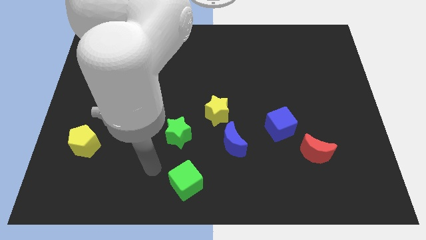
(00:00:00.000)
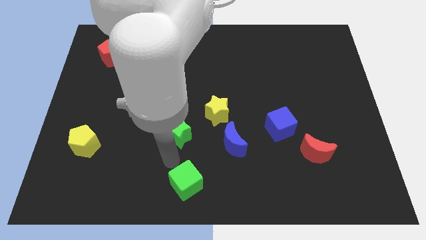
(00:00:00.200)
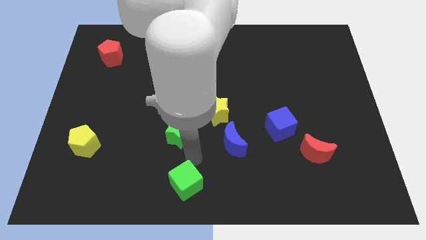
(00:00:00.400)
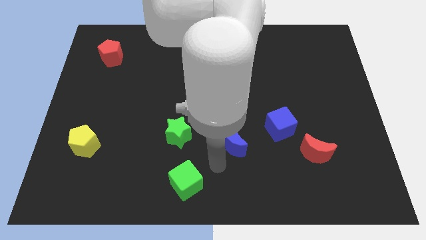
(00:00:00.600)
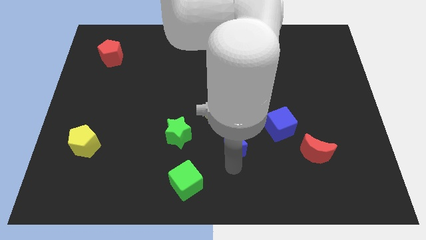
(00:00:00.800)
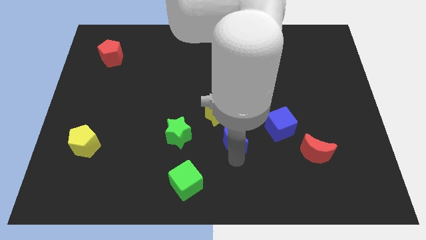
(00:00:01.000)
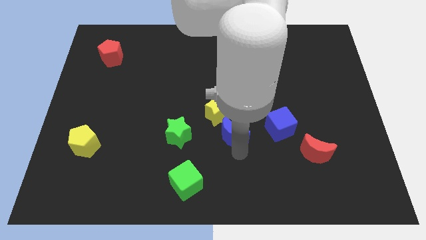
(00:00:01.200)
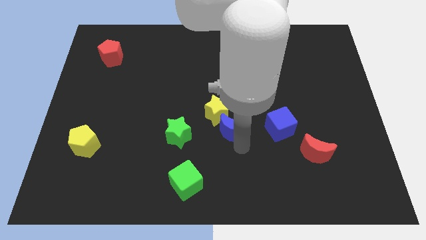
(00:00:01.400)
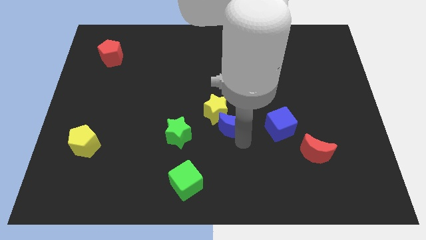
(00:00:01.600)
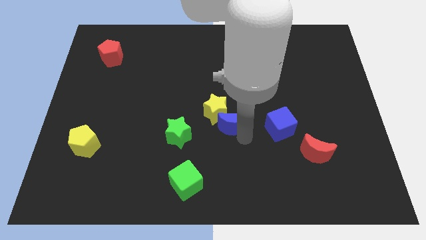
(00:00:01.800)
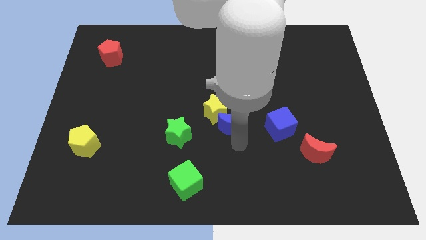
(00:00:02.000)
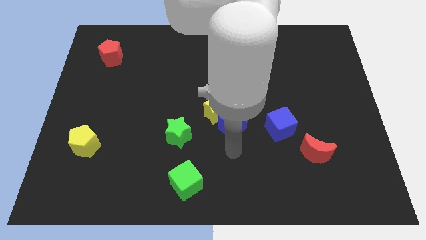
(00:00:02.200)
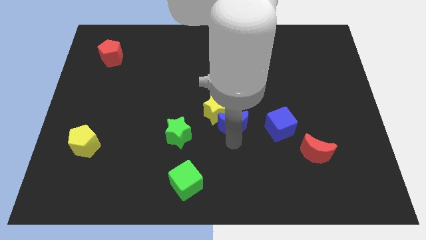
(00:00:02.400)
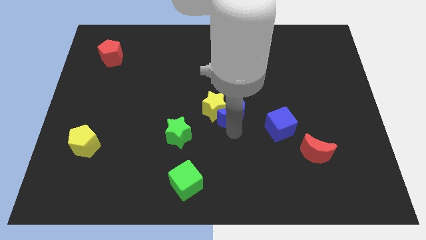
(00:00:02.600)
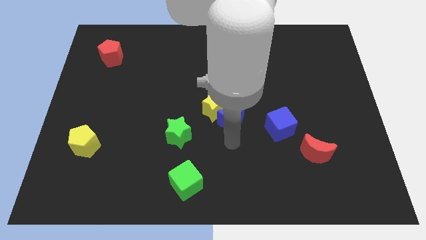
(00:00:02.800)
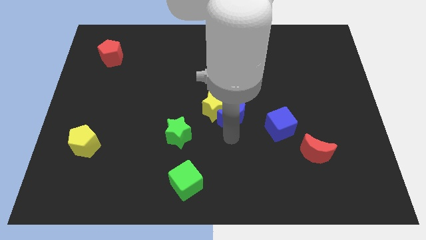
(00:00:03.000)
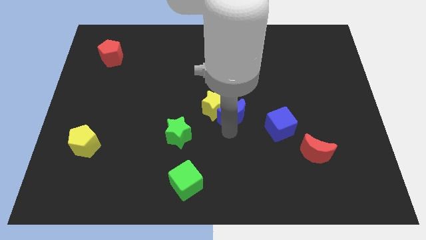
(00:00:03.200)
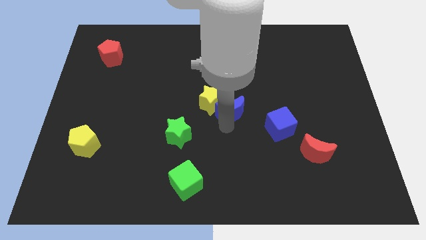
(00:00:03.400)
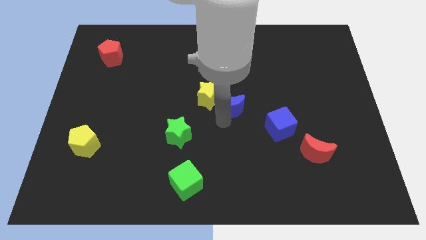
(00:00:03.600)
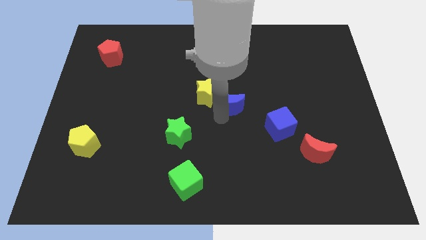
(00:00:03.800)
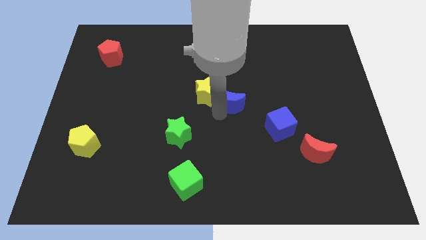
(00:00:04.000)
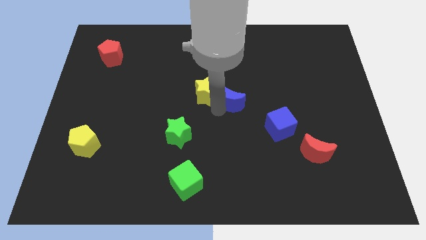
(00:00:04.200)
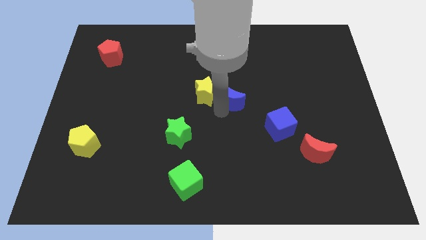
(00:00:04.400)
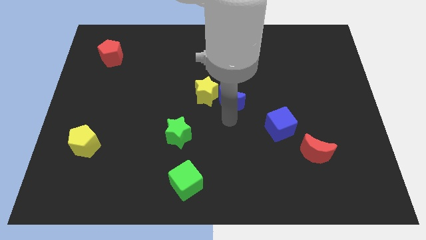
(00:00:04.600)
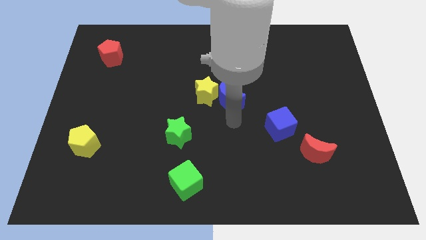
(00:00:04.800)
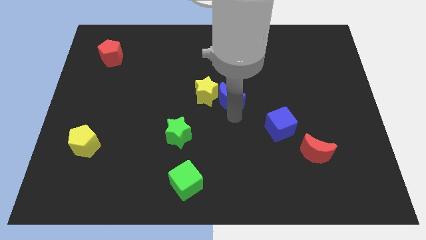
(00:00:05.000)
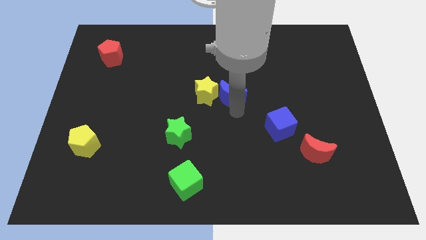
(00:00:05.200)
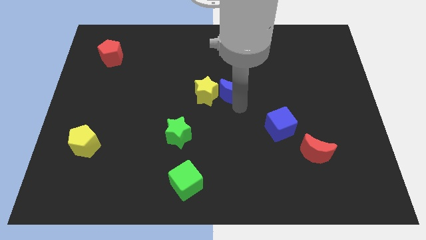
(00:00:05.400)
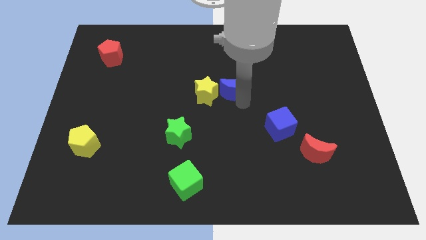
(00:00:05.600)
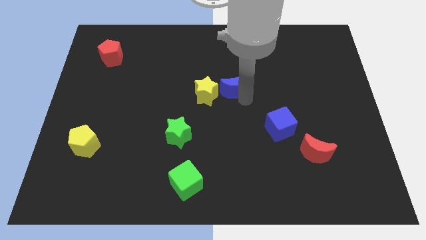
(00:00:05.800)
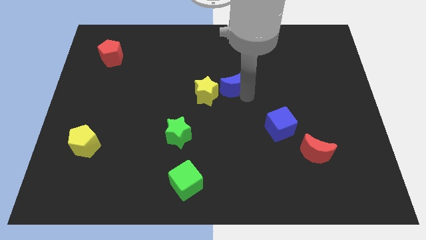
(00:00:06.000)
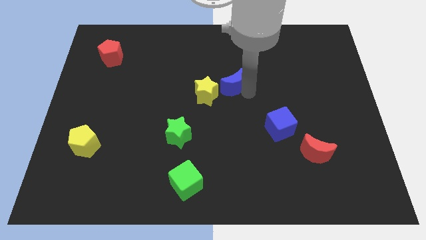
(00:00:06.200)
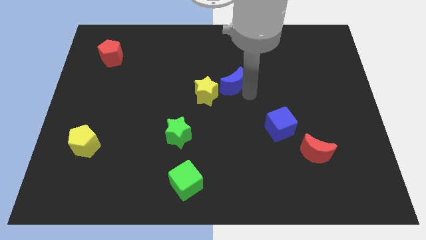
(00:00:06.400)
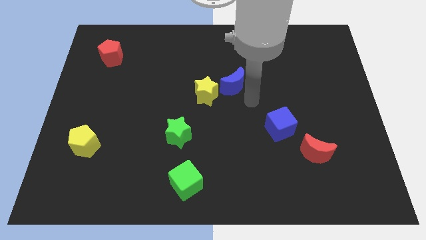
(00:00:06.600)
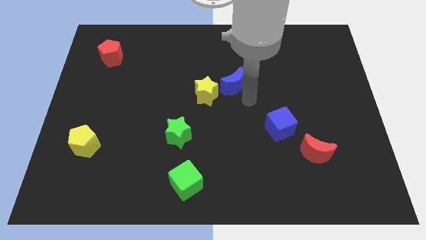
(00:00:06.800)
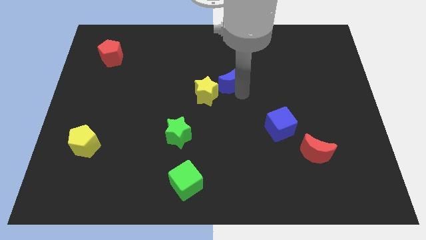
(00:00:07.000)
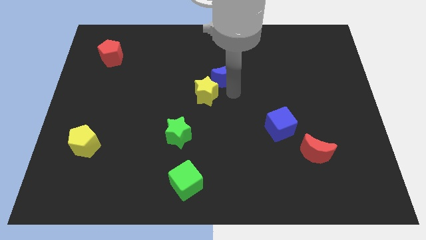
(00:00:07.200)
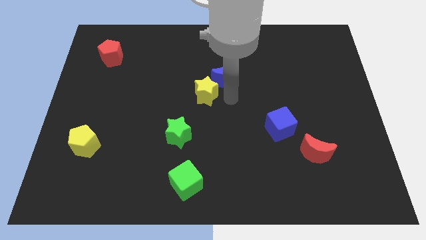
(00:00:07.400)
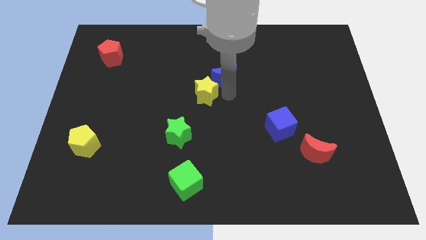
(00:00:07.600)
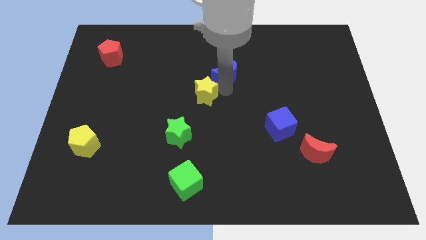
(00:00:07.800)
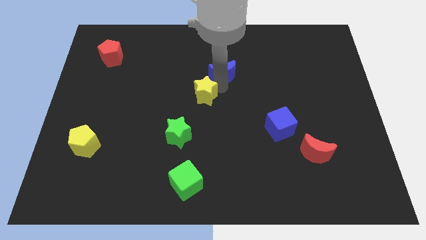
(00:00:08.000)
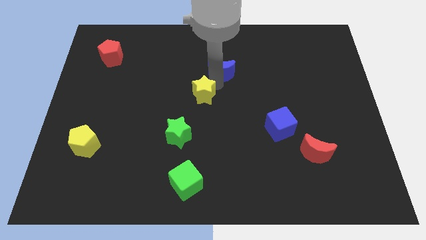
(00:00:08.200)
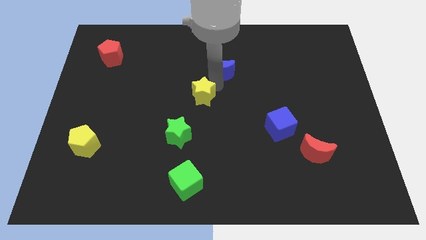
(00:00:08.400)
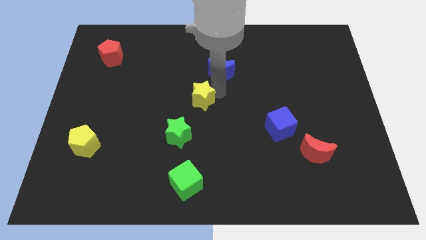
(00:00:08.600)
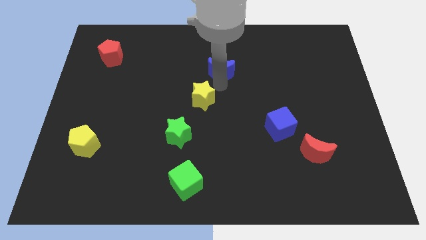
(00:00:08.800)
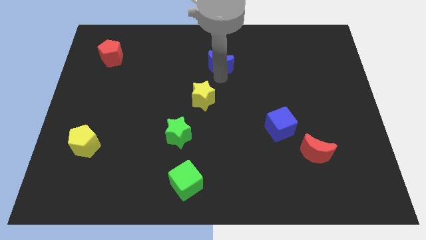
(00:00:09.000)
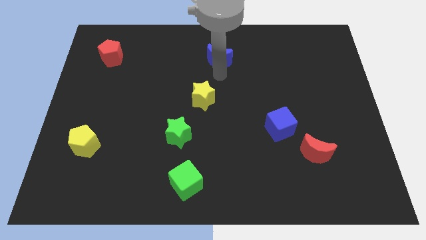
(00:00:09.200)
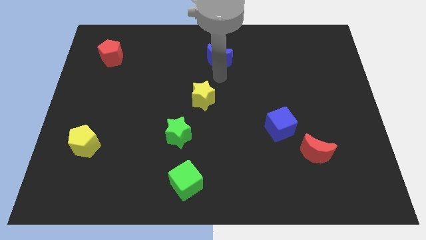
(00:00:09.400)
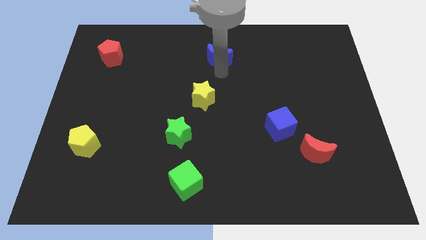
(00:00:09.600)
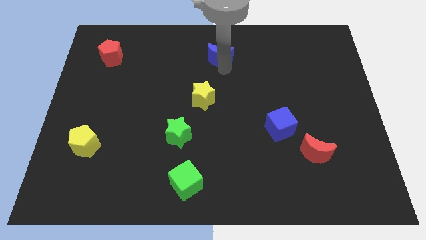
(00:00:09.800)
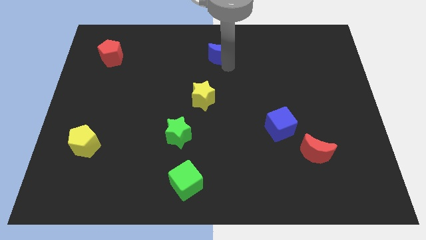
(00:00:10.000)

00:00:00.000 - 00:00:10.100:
move the blue moon to the towards your base

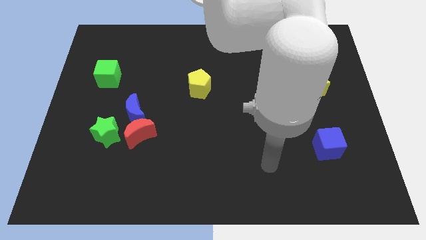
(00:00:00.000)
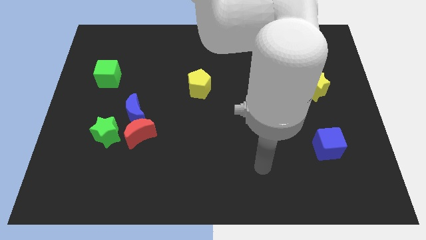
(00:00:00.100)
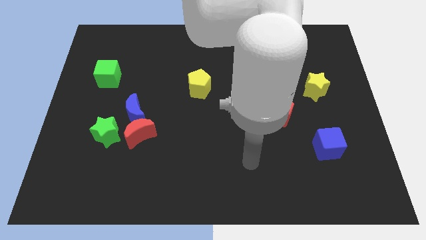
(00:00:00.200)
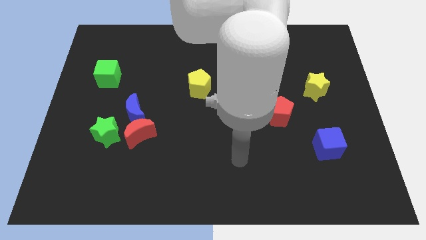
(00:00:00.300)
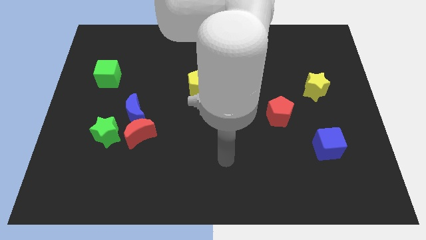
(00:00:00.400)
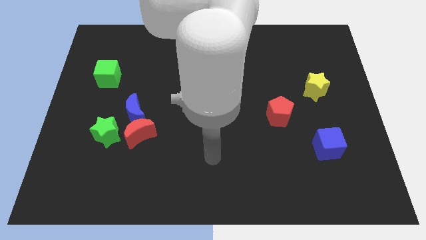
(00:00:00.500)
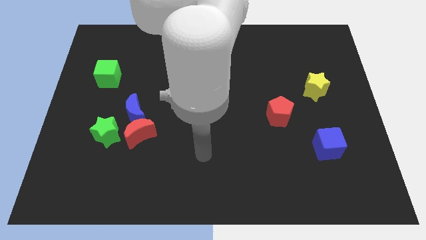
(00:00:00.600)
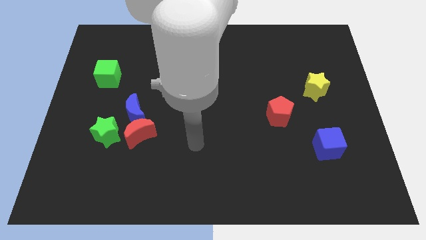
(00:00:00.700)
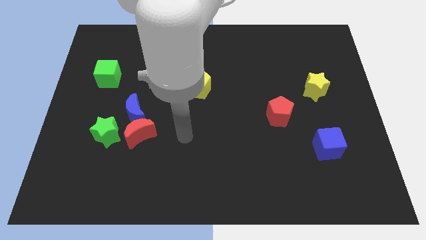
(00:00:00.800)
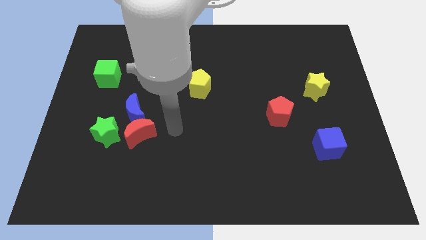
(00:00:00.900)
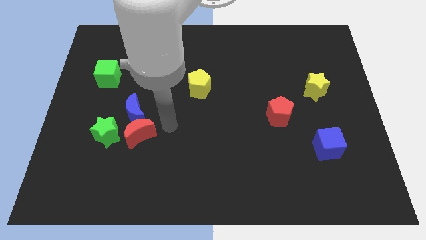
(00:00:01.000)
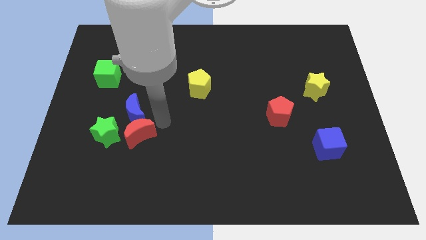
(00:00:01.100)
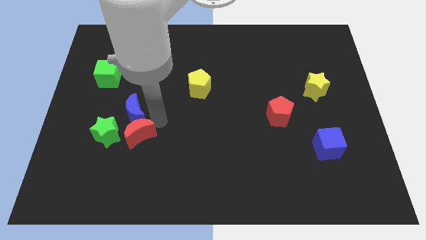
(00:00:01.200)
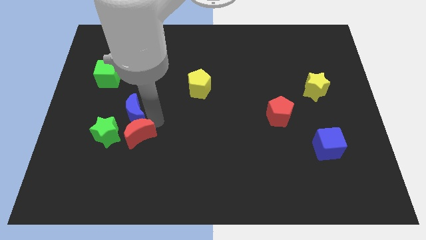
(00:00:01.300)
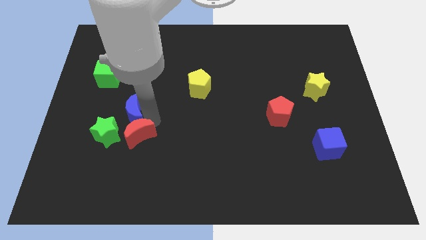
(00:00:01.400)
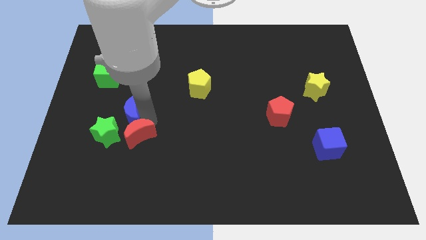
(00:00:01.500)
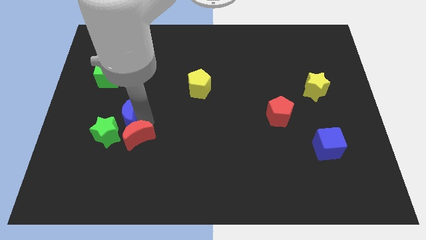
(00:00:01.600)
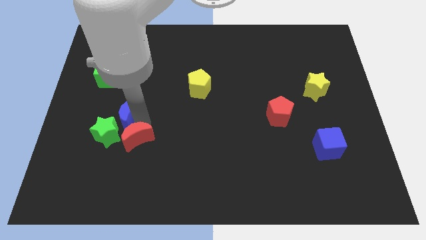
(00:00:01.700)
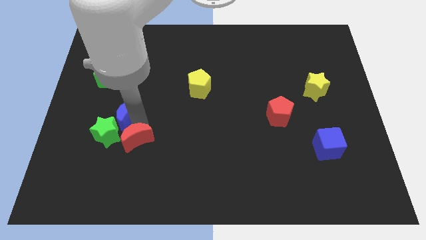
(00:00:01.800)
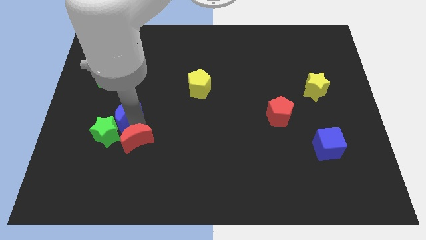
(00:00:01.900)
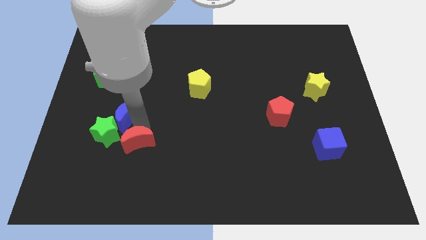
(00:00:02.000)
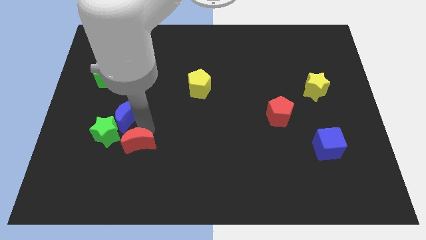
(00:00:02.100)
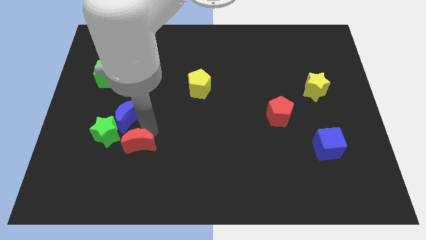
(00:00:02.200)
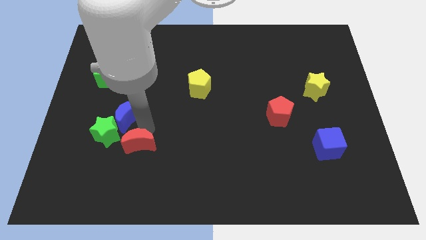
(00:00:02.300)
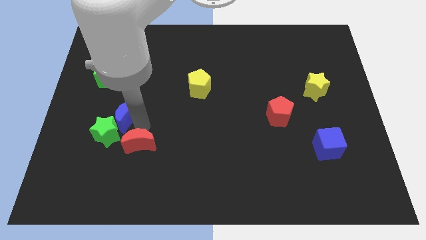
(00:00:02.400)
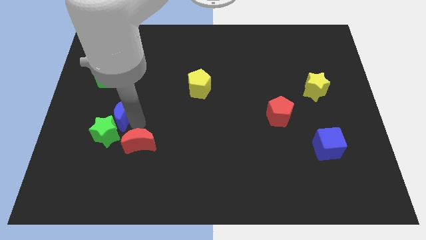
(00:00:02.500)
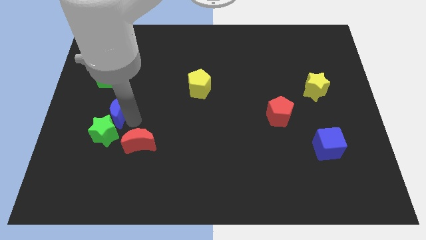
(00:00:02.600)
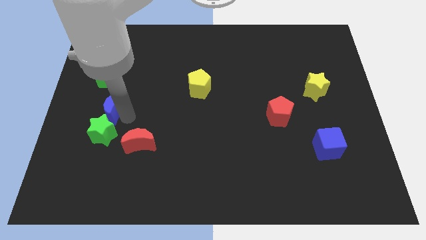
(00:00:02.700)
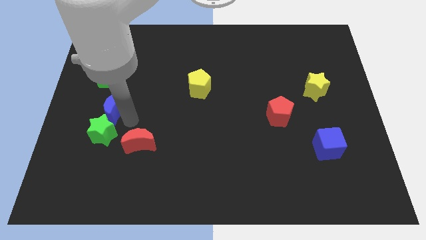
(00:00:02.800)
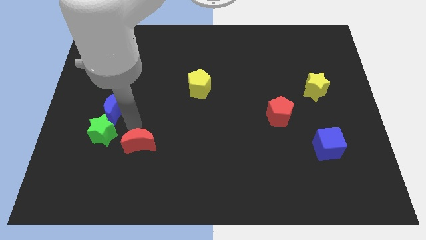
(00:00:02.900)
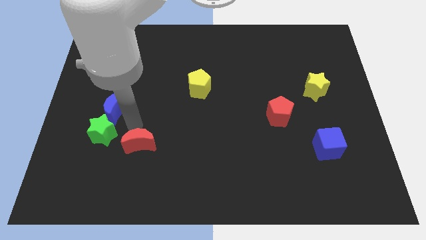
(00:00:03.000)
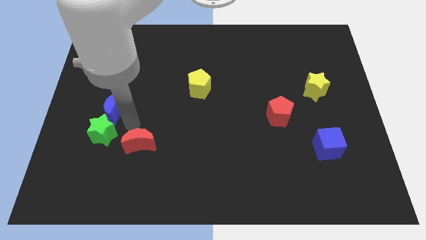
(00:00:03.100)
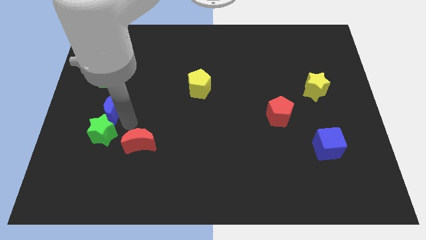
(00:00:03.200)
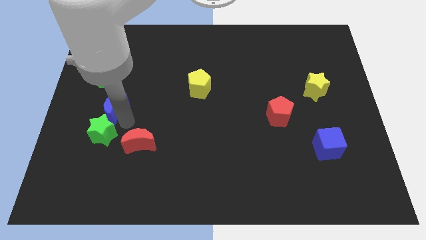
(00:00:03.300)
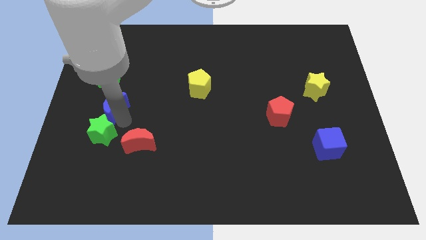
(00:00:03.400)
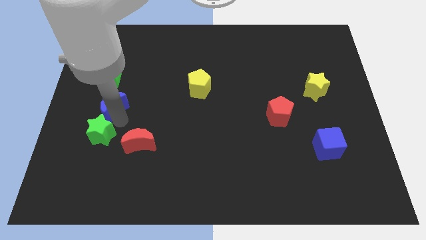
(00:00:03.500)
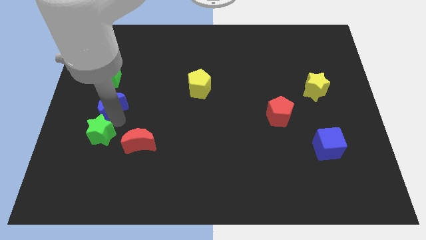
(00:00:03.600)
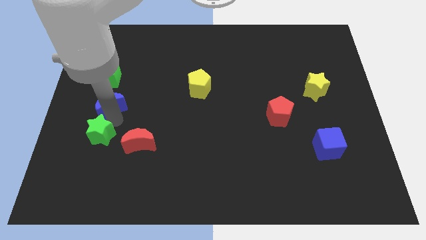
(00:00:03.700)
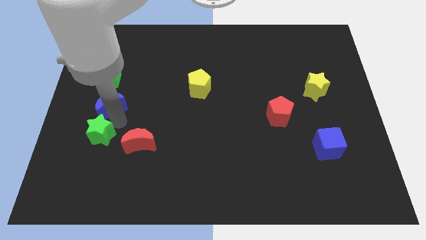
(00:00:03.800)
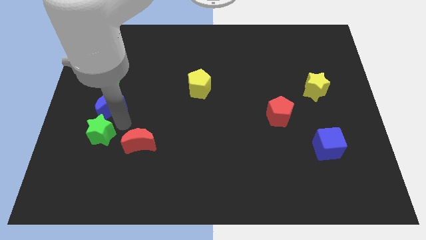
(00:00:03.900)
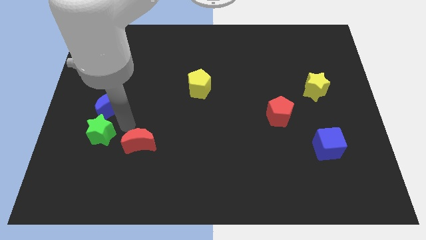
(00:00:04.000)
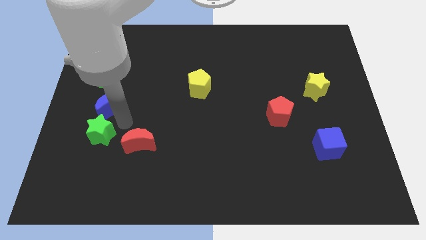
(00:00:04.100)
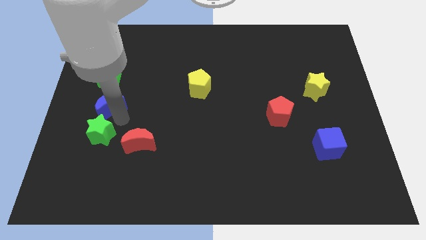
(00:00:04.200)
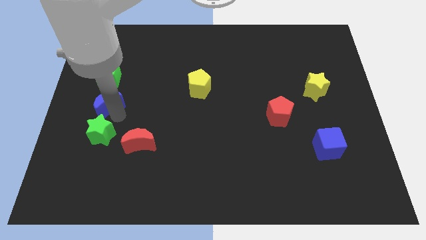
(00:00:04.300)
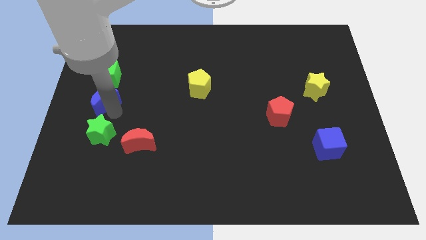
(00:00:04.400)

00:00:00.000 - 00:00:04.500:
move the blue moon to the left side
